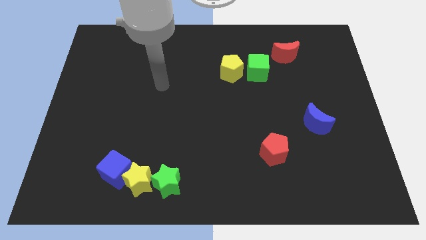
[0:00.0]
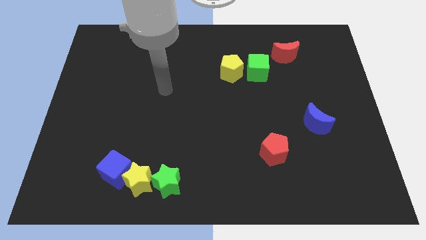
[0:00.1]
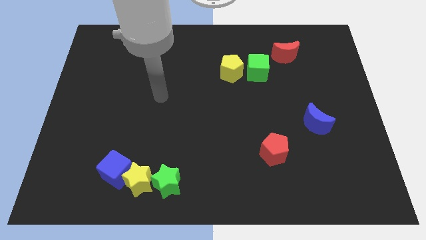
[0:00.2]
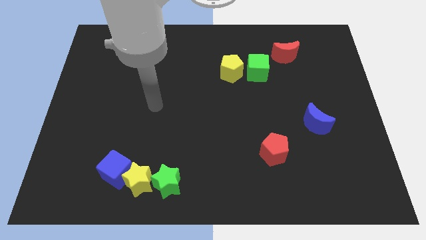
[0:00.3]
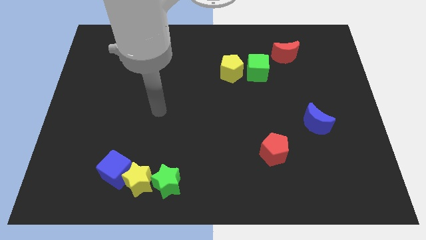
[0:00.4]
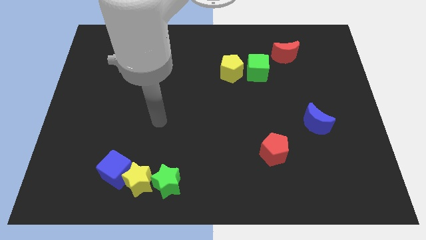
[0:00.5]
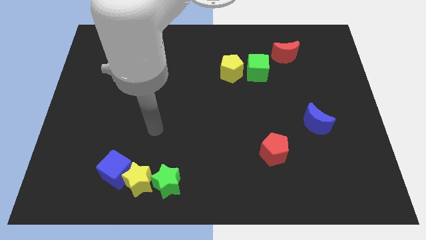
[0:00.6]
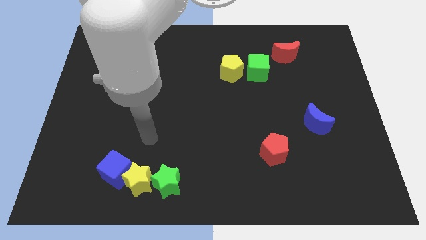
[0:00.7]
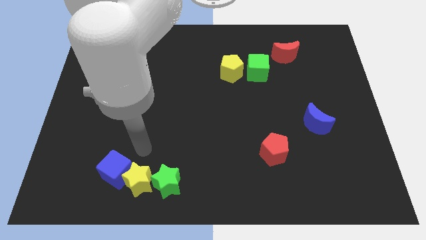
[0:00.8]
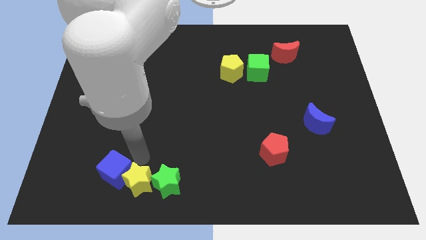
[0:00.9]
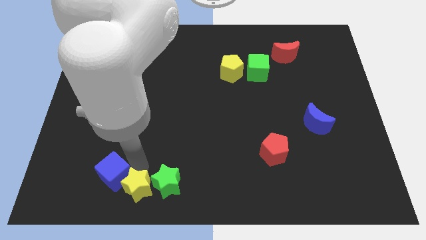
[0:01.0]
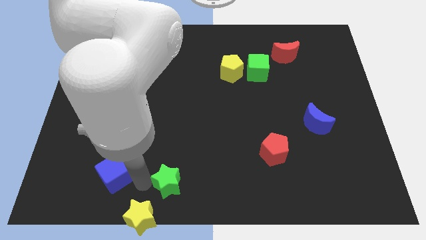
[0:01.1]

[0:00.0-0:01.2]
move the blue cube away from the yellow star

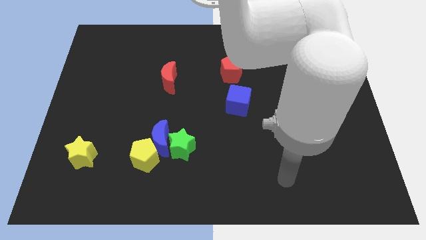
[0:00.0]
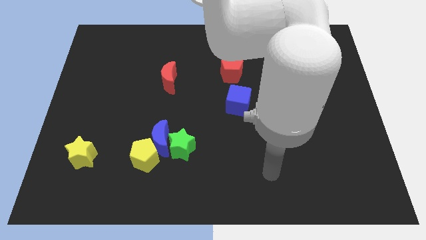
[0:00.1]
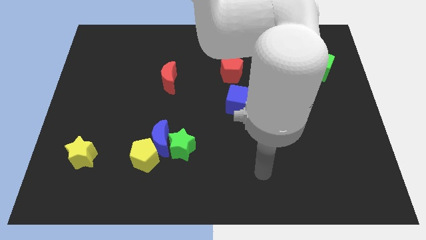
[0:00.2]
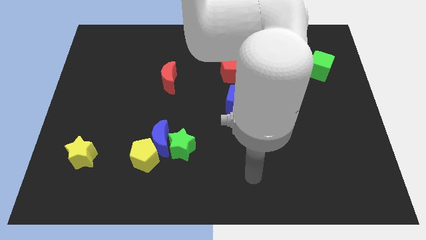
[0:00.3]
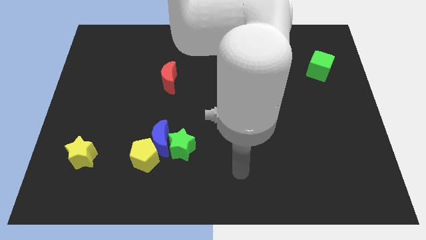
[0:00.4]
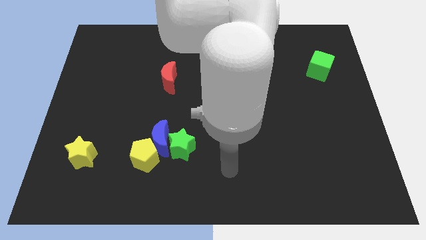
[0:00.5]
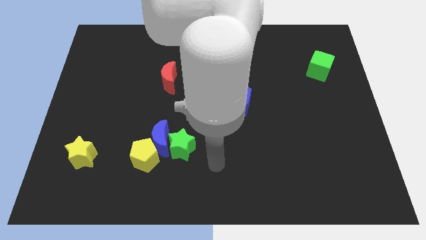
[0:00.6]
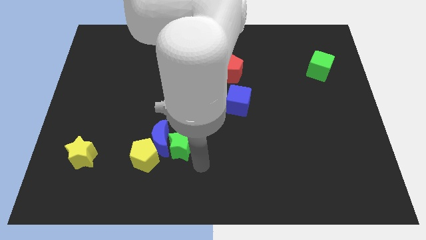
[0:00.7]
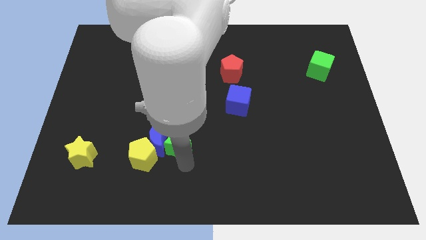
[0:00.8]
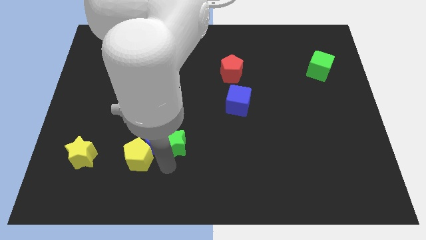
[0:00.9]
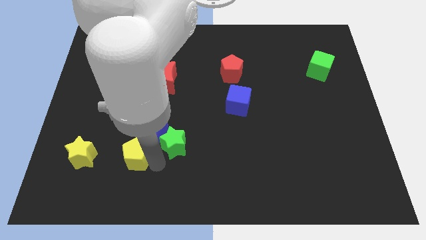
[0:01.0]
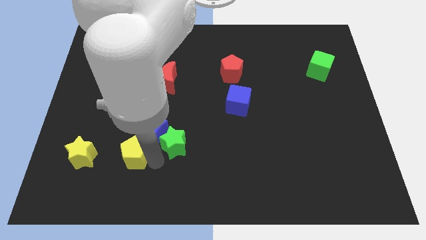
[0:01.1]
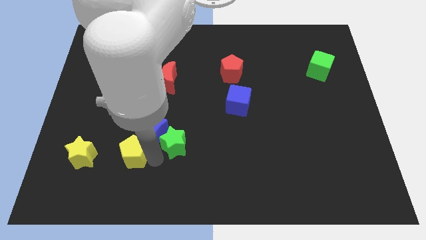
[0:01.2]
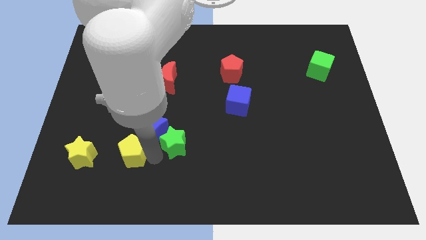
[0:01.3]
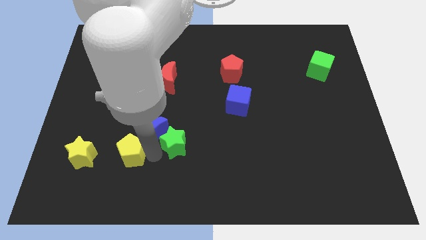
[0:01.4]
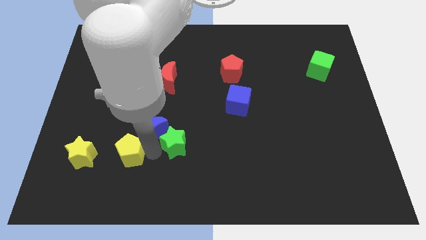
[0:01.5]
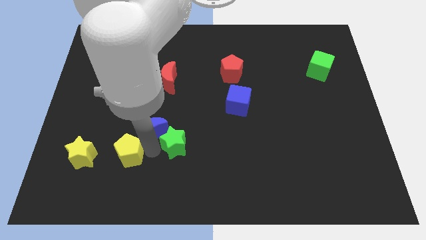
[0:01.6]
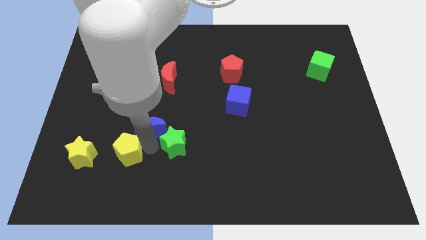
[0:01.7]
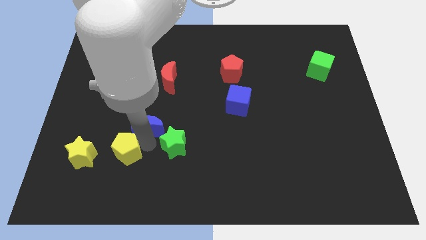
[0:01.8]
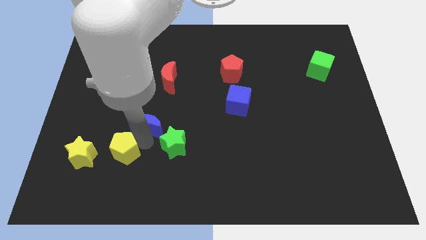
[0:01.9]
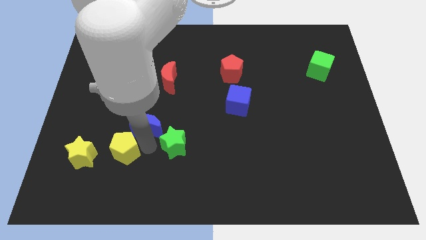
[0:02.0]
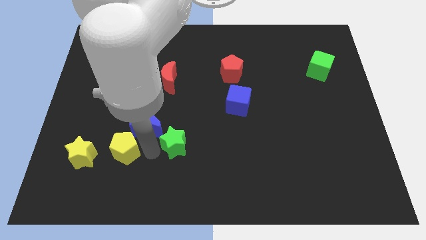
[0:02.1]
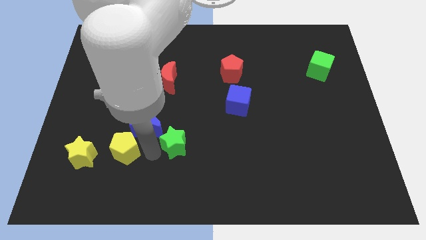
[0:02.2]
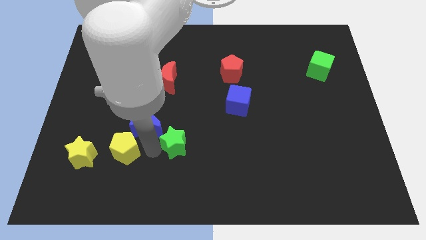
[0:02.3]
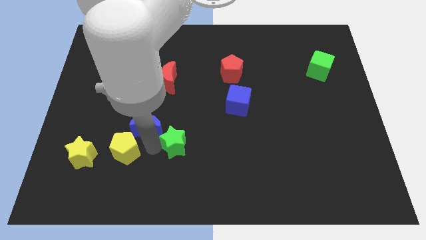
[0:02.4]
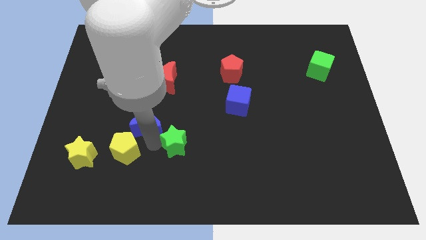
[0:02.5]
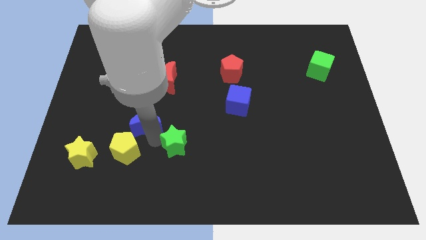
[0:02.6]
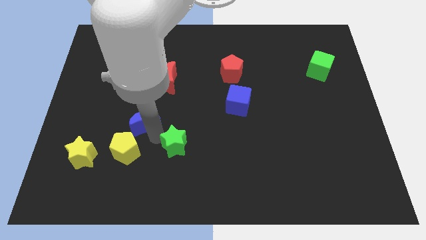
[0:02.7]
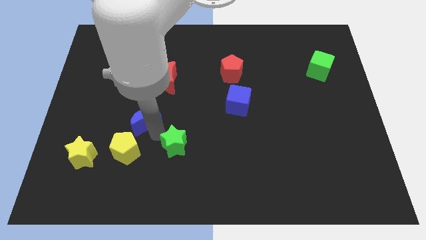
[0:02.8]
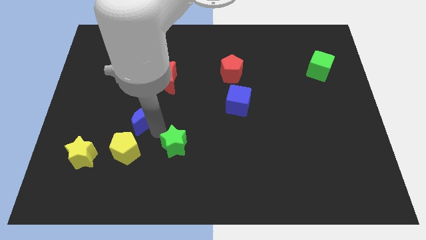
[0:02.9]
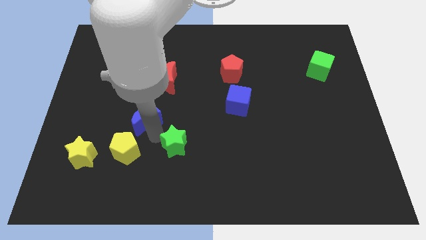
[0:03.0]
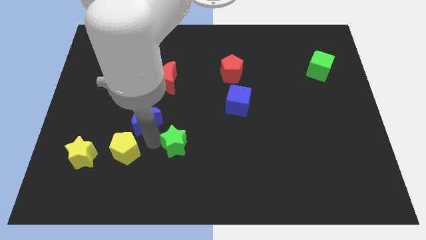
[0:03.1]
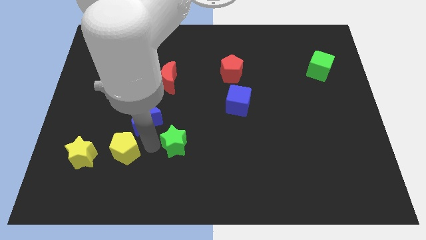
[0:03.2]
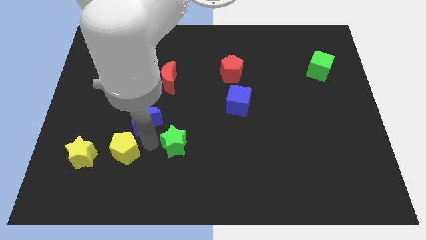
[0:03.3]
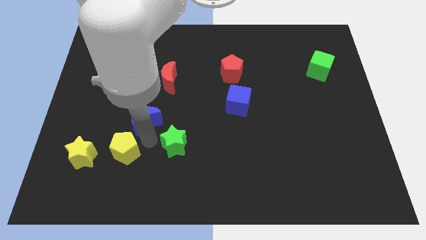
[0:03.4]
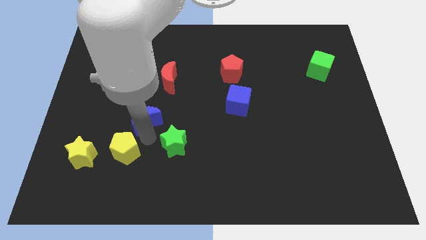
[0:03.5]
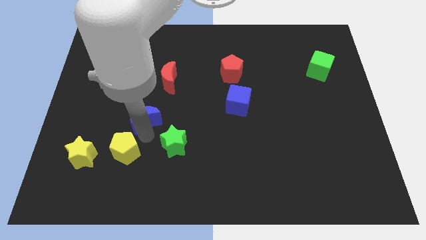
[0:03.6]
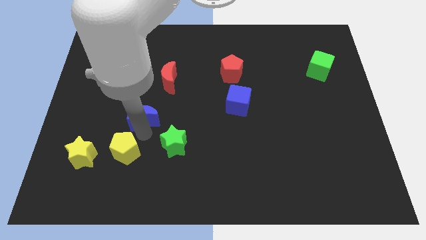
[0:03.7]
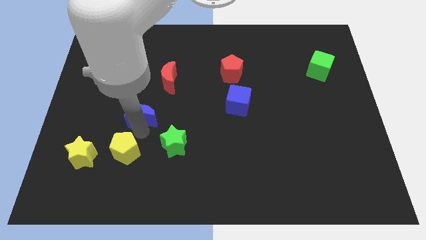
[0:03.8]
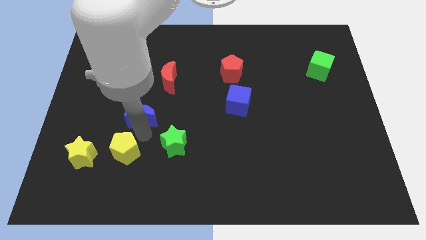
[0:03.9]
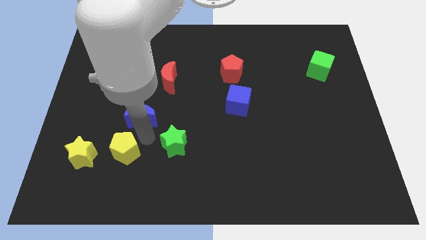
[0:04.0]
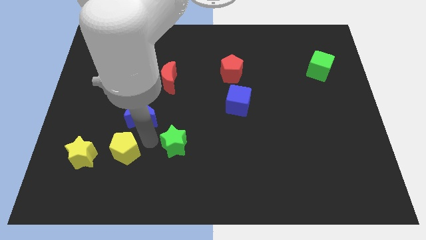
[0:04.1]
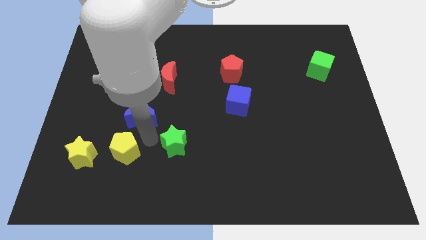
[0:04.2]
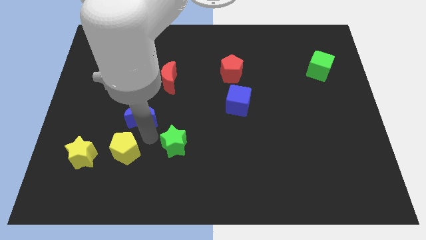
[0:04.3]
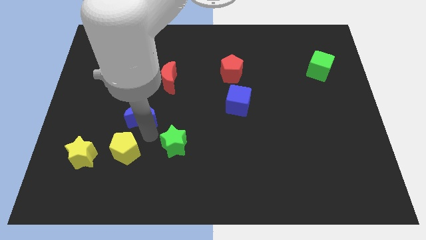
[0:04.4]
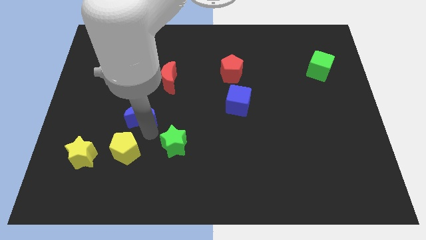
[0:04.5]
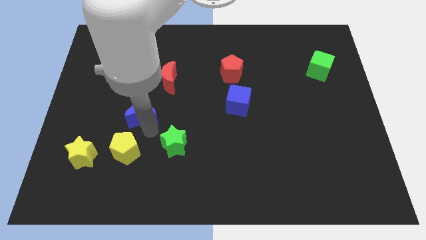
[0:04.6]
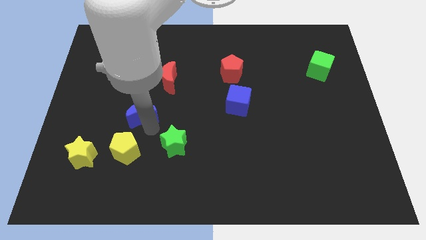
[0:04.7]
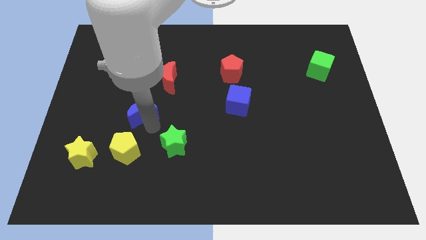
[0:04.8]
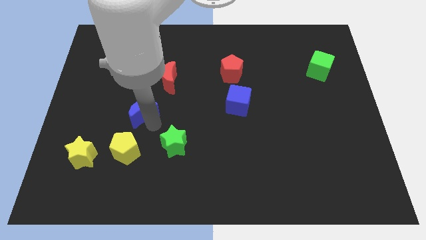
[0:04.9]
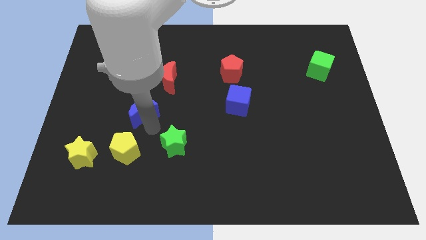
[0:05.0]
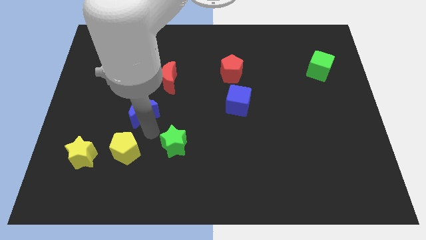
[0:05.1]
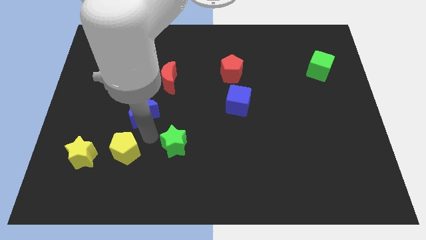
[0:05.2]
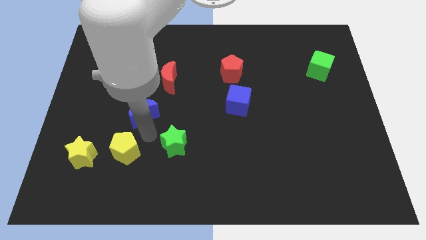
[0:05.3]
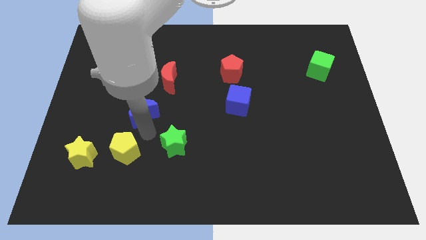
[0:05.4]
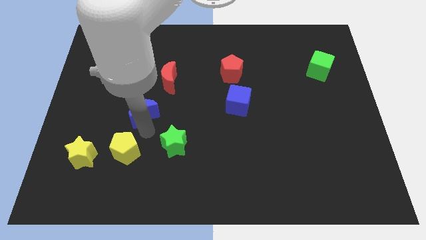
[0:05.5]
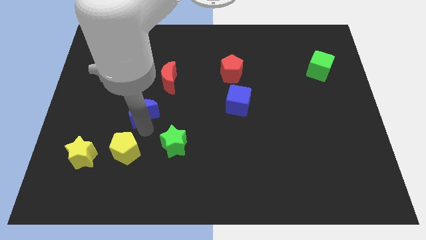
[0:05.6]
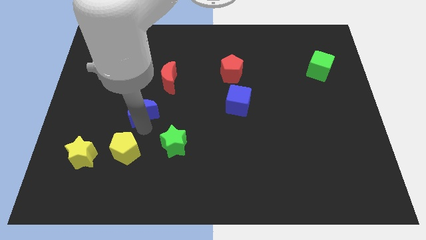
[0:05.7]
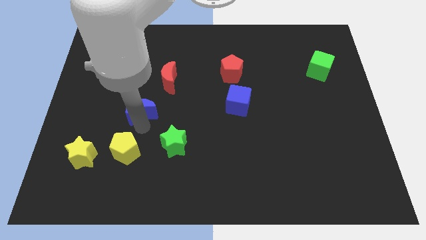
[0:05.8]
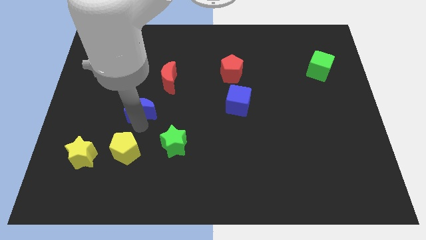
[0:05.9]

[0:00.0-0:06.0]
move the blue moon away from the green star and yellow pentagon

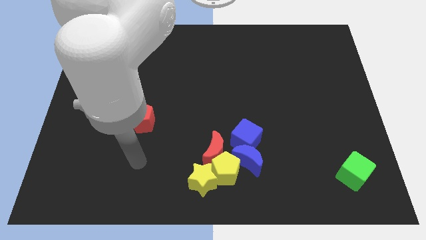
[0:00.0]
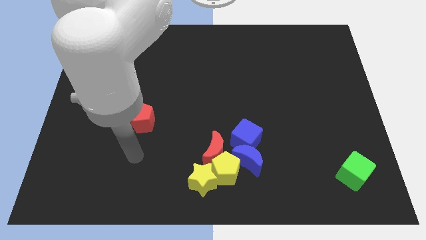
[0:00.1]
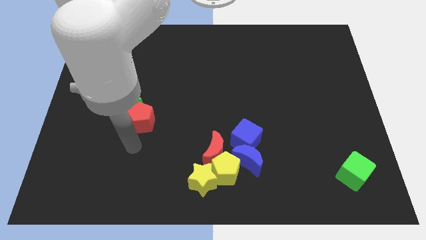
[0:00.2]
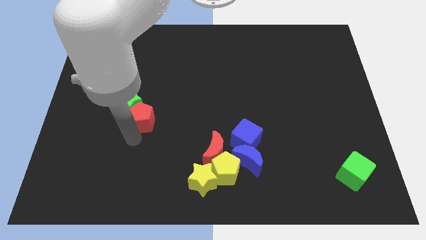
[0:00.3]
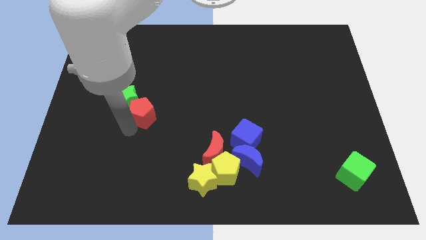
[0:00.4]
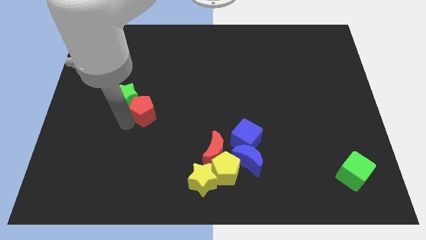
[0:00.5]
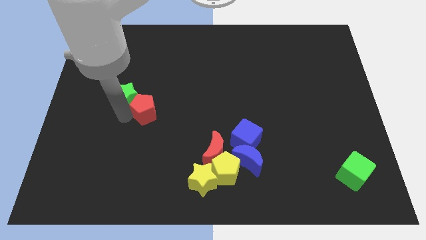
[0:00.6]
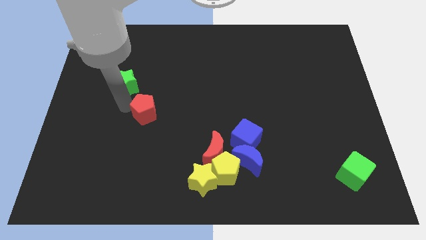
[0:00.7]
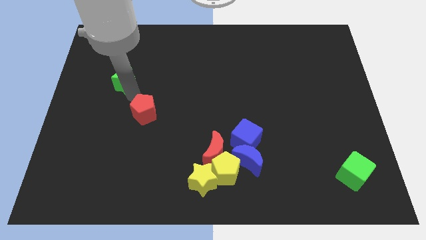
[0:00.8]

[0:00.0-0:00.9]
move the red pentagon away from the green star

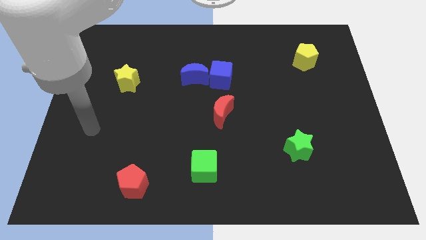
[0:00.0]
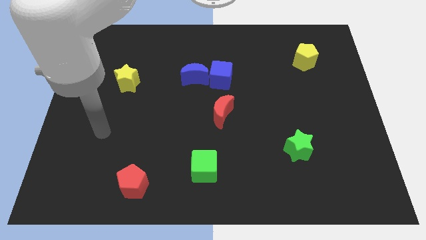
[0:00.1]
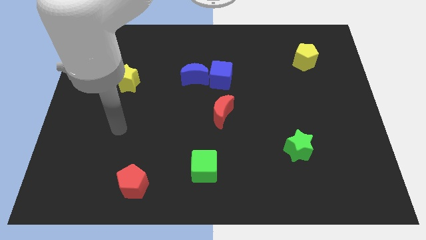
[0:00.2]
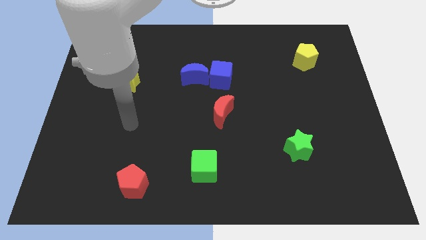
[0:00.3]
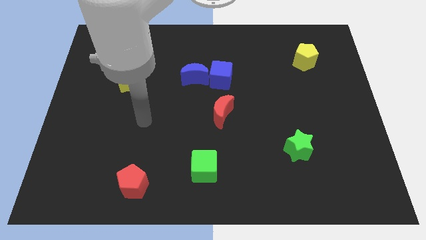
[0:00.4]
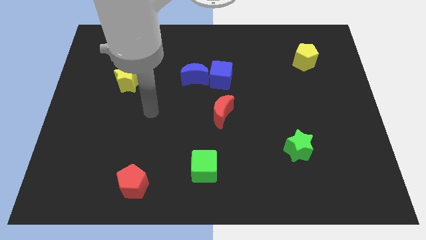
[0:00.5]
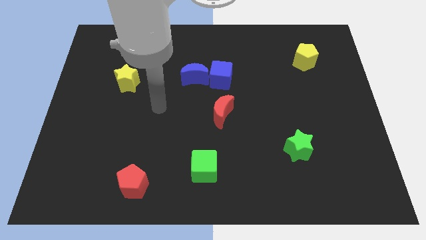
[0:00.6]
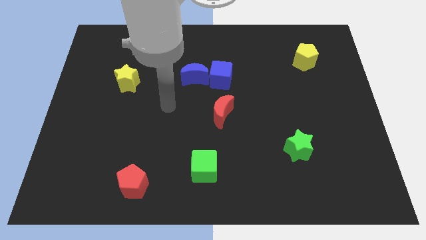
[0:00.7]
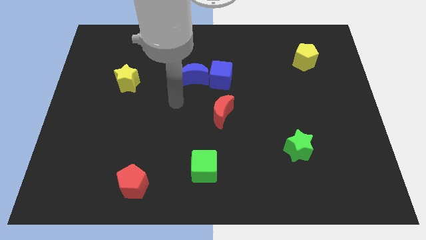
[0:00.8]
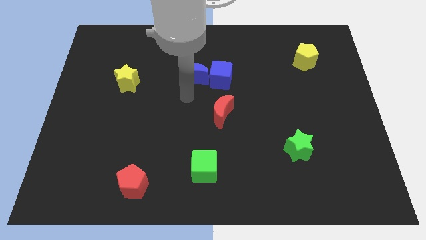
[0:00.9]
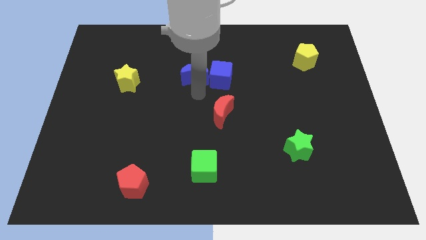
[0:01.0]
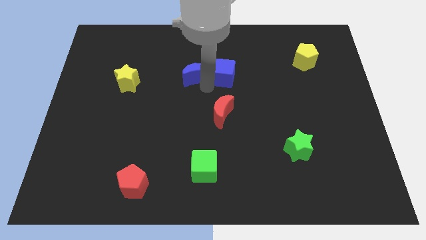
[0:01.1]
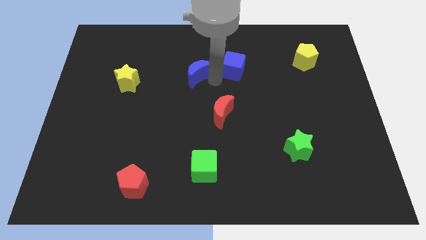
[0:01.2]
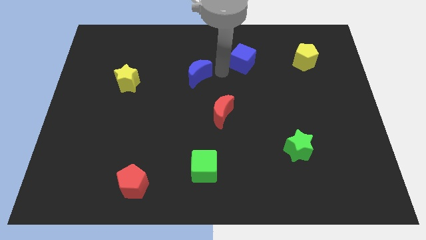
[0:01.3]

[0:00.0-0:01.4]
separate the blue moon from the blue cube

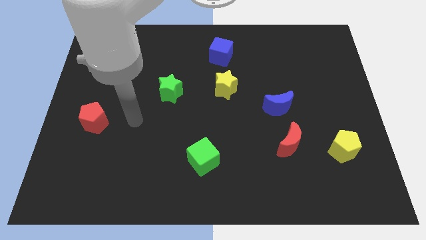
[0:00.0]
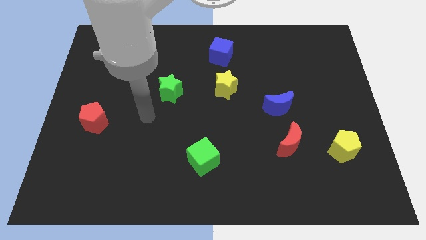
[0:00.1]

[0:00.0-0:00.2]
separate the red moon from the blue moon
